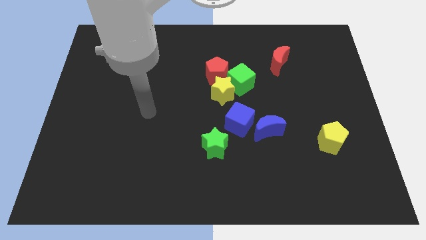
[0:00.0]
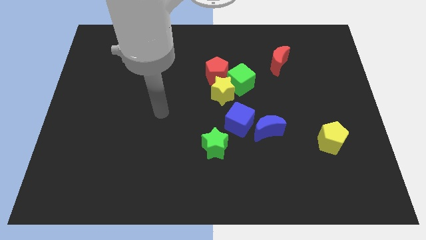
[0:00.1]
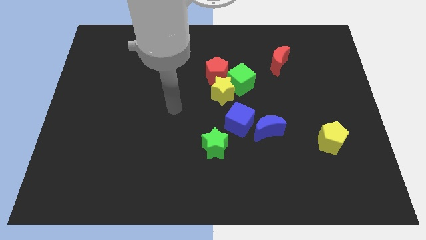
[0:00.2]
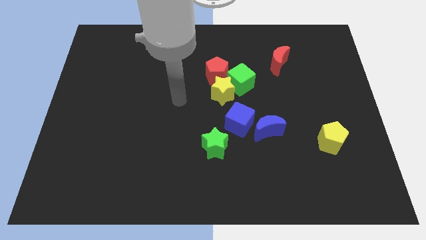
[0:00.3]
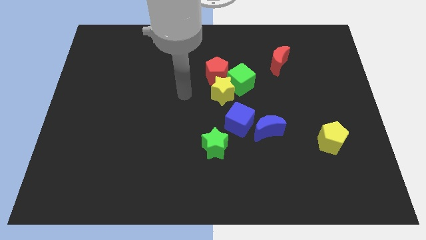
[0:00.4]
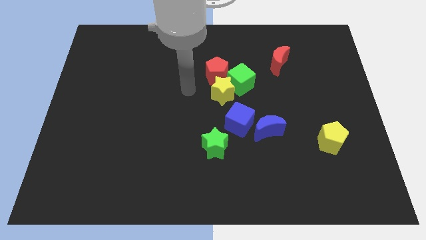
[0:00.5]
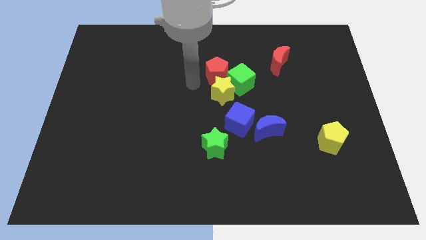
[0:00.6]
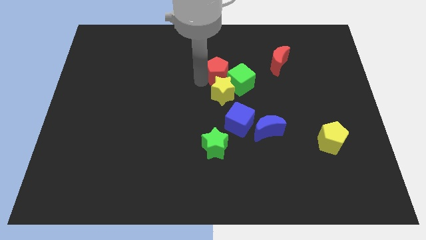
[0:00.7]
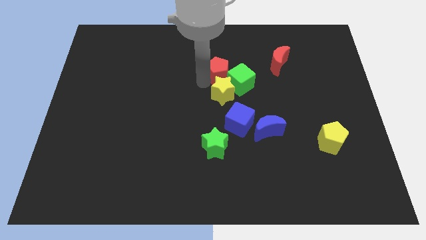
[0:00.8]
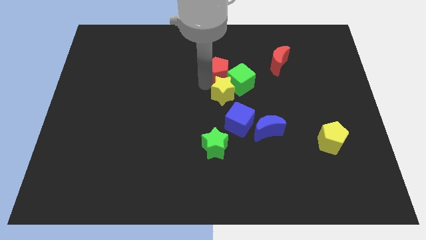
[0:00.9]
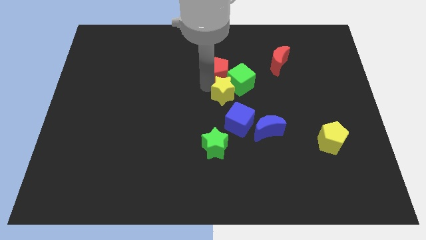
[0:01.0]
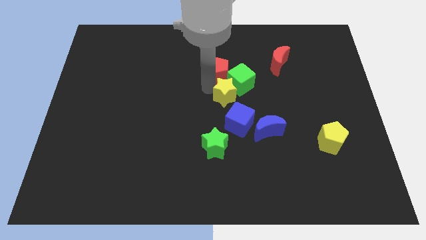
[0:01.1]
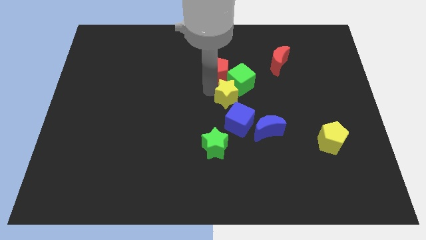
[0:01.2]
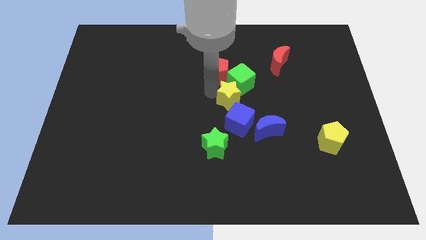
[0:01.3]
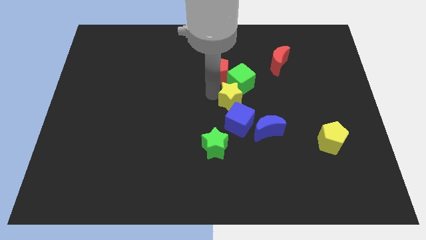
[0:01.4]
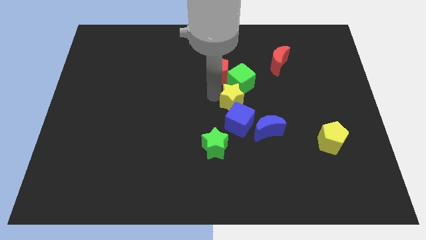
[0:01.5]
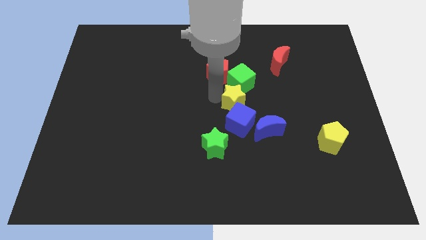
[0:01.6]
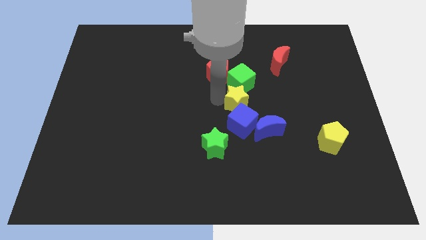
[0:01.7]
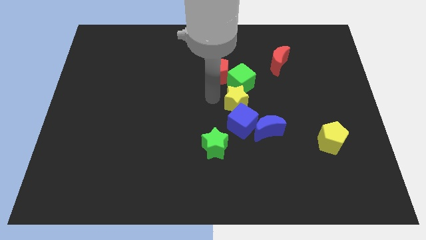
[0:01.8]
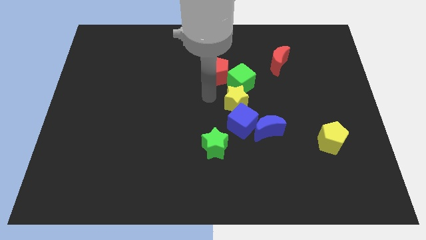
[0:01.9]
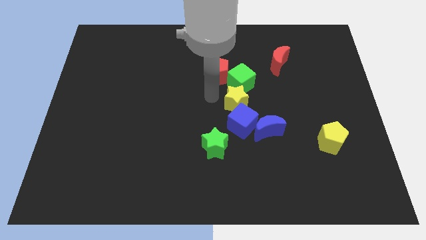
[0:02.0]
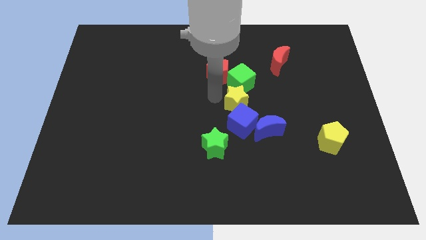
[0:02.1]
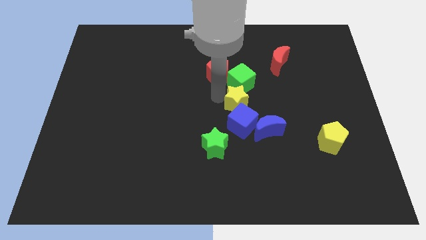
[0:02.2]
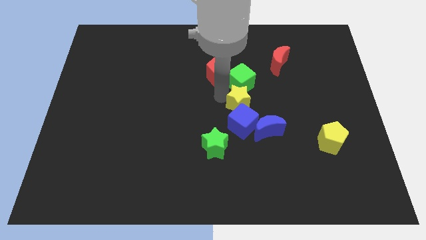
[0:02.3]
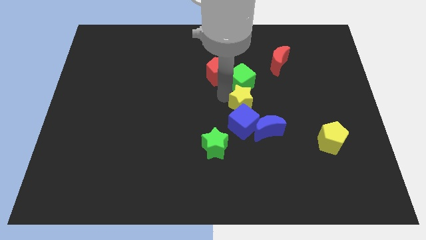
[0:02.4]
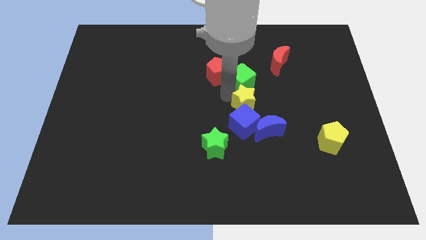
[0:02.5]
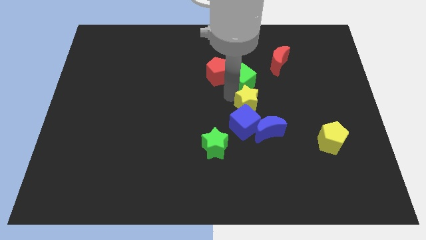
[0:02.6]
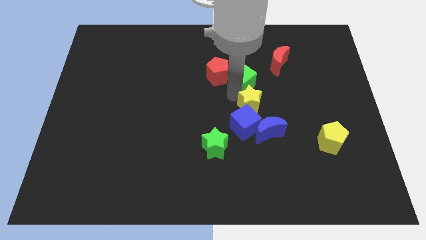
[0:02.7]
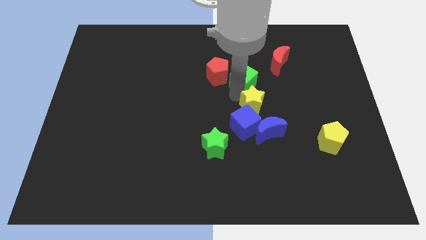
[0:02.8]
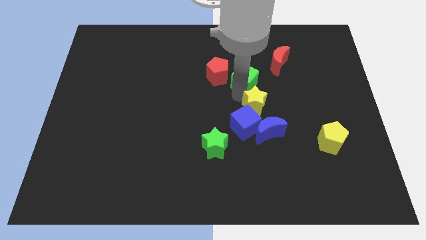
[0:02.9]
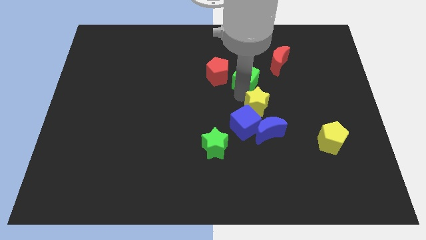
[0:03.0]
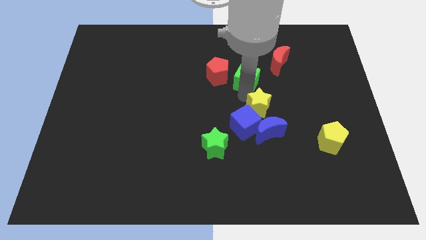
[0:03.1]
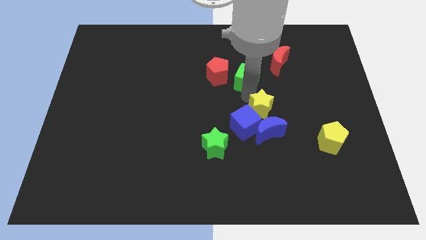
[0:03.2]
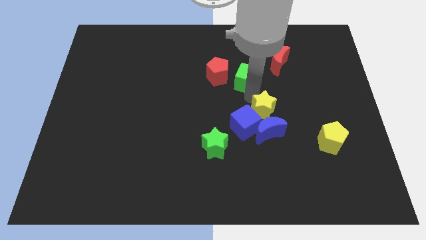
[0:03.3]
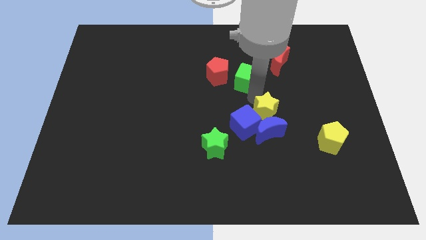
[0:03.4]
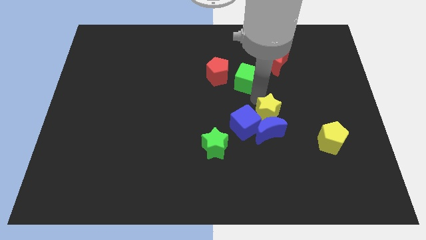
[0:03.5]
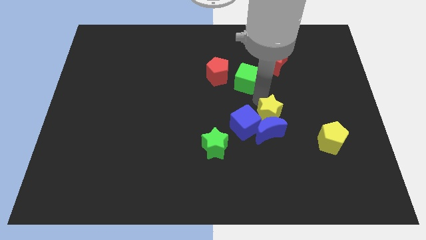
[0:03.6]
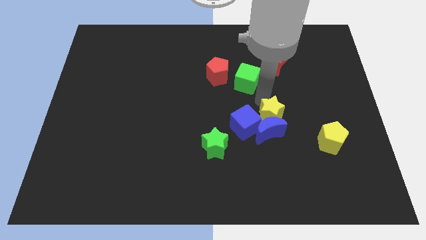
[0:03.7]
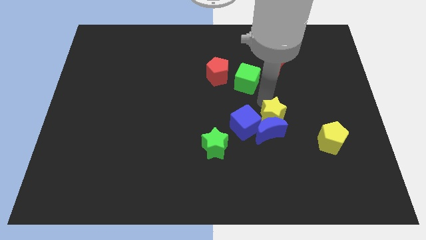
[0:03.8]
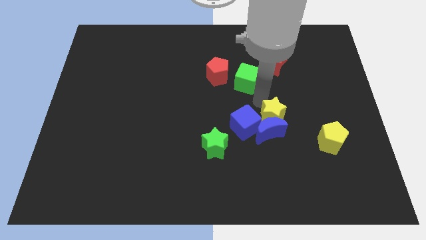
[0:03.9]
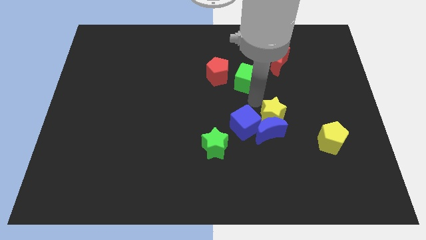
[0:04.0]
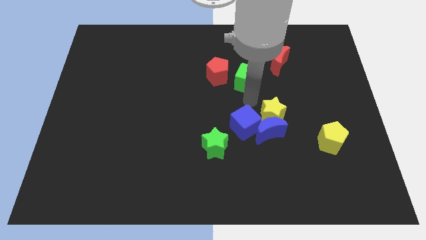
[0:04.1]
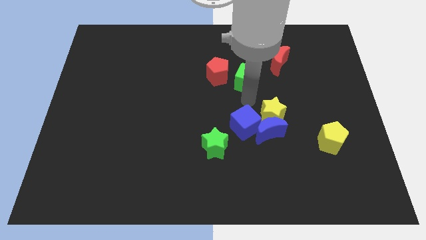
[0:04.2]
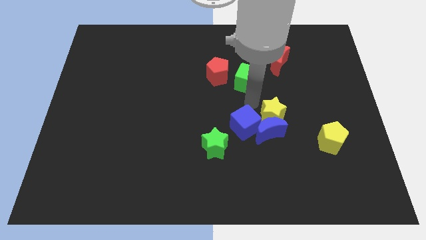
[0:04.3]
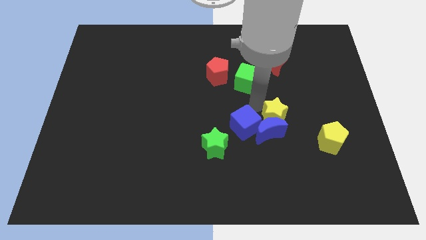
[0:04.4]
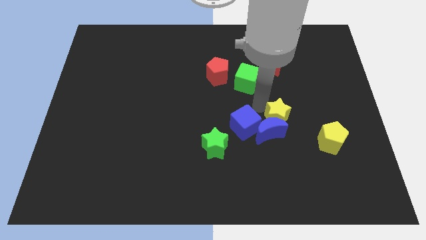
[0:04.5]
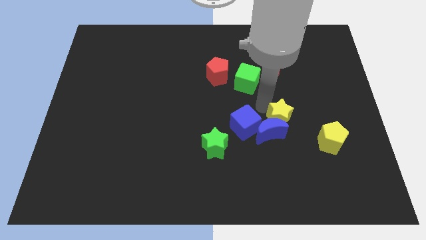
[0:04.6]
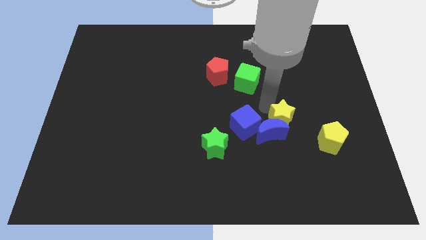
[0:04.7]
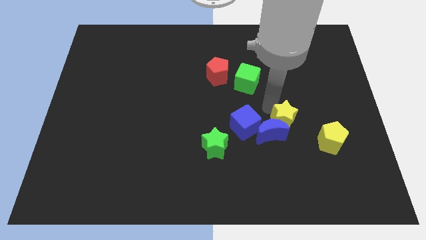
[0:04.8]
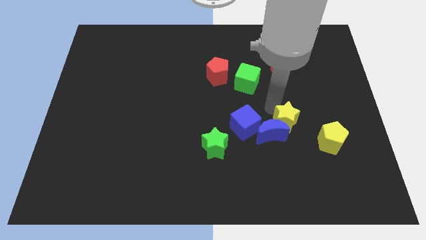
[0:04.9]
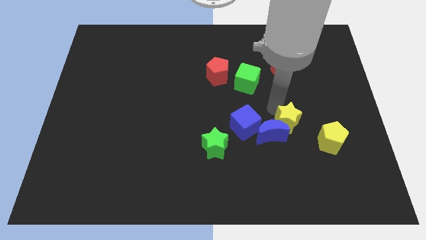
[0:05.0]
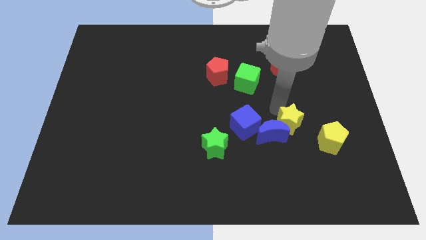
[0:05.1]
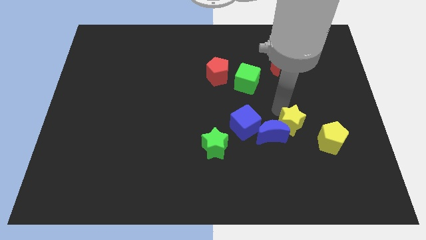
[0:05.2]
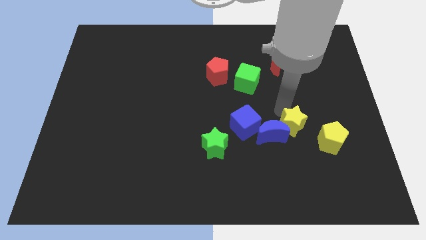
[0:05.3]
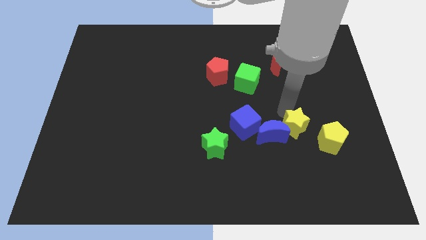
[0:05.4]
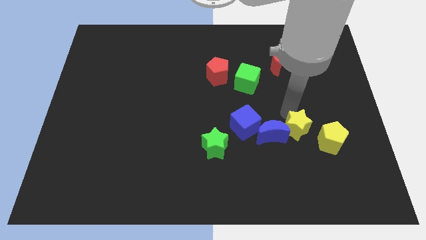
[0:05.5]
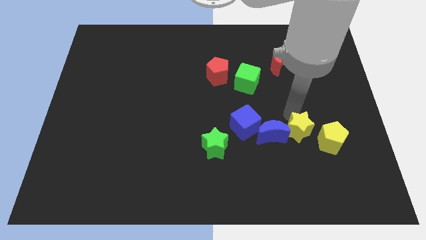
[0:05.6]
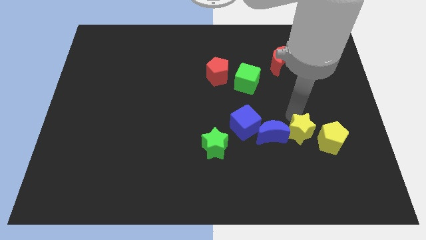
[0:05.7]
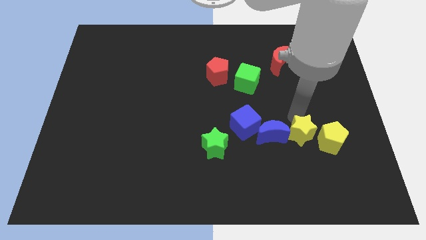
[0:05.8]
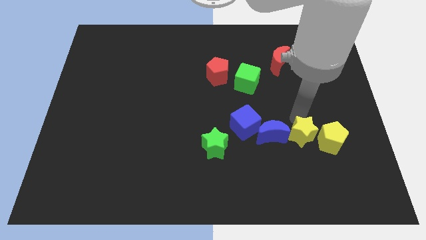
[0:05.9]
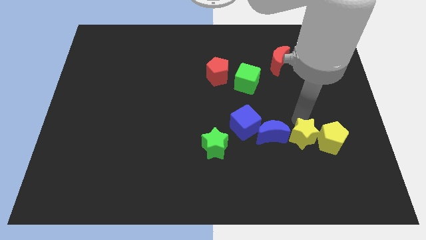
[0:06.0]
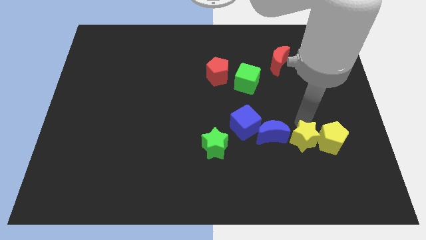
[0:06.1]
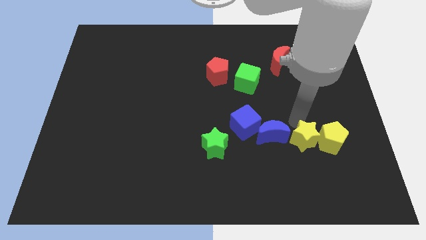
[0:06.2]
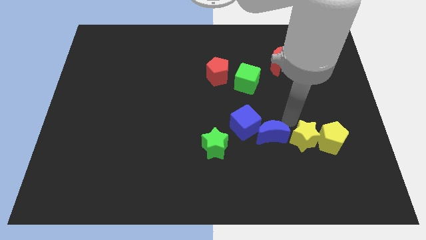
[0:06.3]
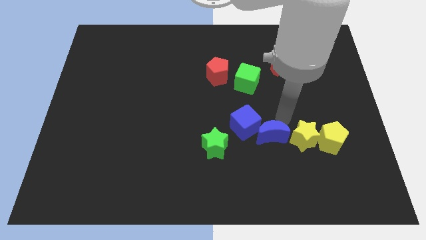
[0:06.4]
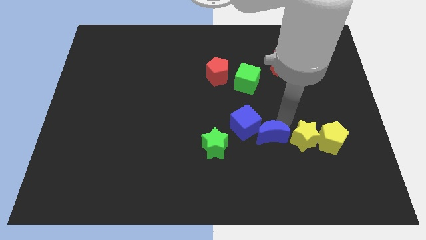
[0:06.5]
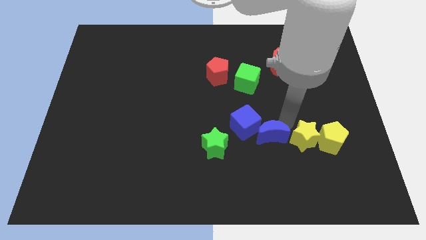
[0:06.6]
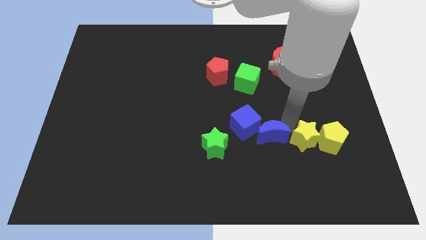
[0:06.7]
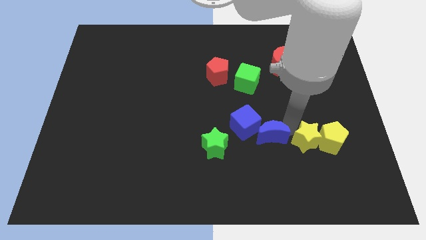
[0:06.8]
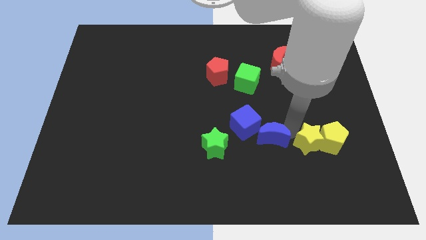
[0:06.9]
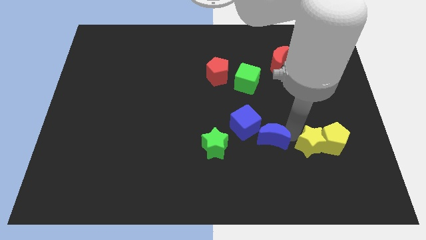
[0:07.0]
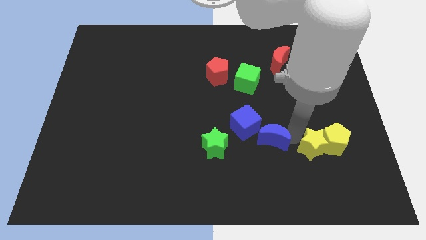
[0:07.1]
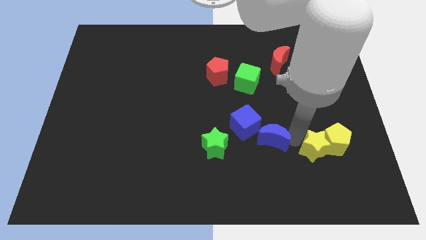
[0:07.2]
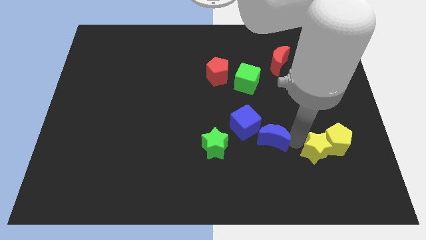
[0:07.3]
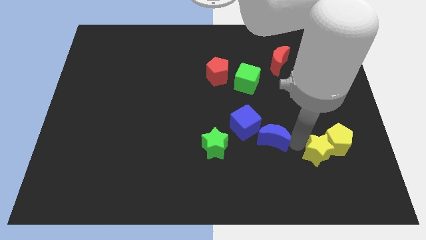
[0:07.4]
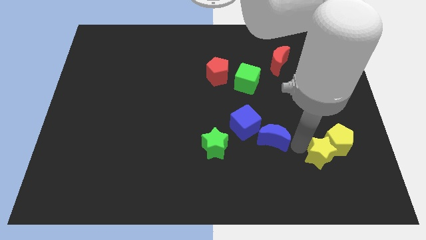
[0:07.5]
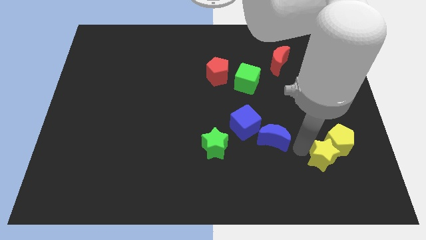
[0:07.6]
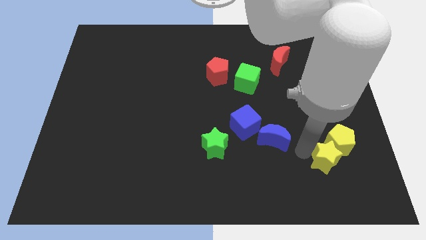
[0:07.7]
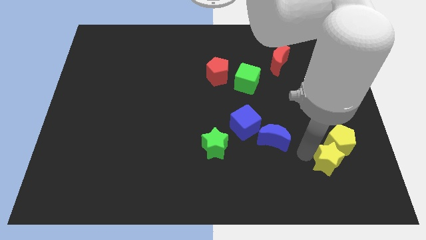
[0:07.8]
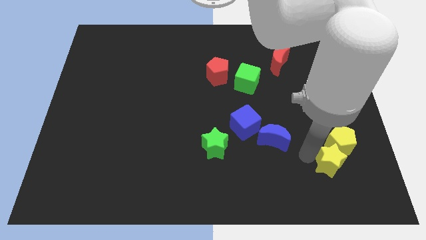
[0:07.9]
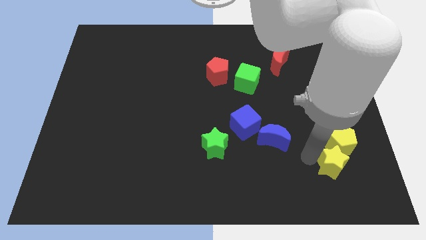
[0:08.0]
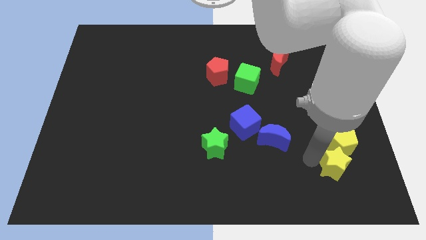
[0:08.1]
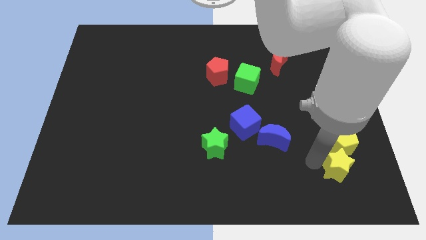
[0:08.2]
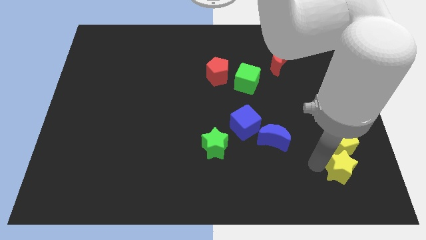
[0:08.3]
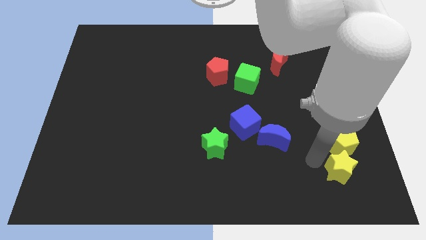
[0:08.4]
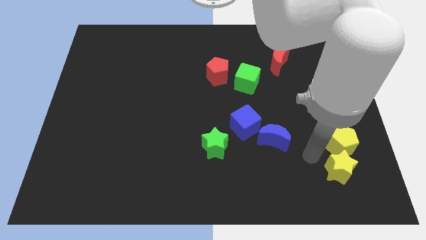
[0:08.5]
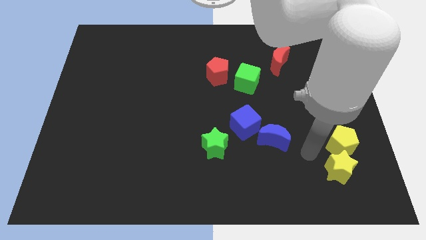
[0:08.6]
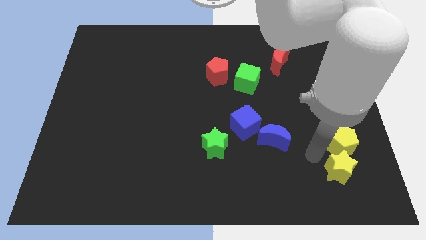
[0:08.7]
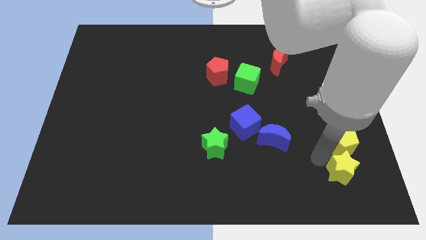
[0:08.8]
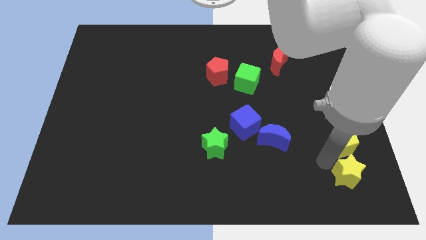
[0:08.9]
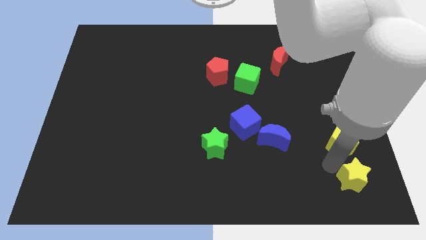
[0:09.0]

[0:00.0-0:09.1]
slide the yellow star to the lower right corner
